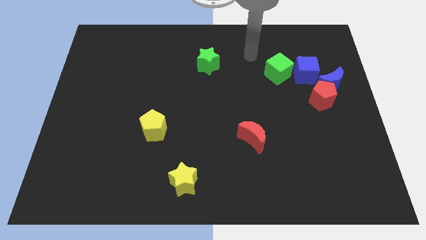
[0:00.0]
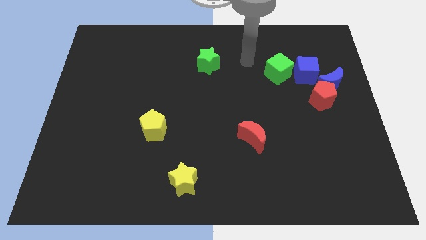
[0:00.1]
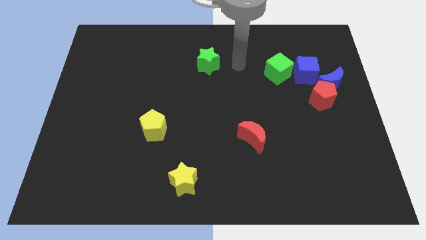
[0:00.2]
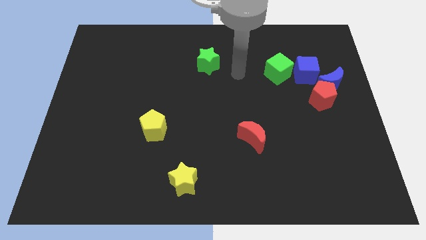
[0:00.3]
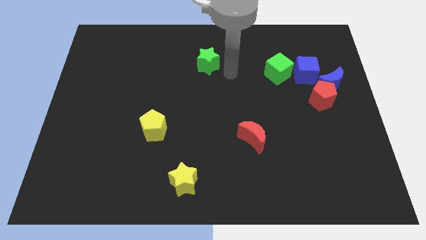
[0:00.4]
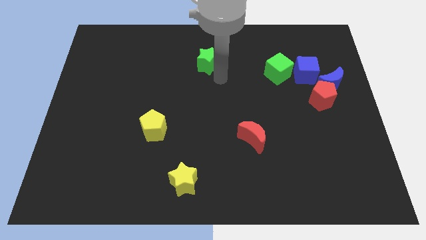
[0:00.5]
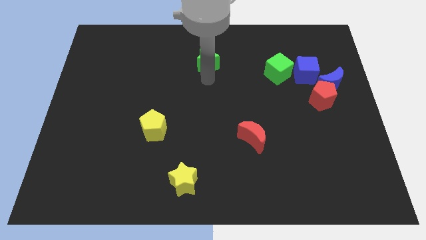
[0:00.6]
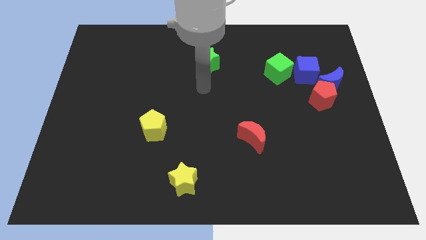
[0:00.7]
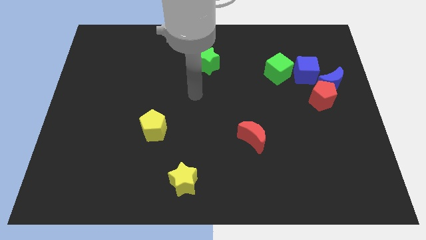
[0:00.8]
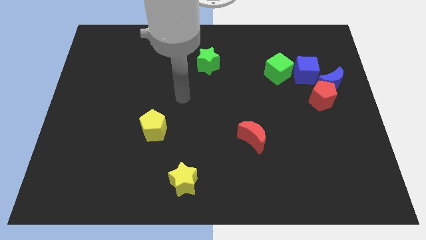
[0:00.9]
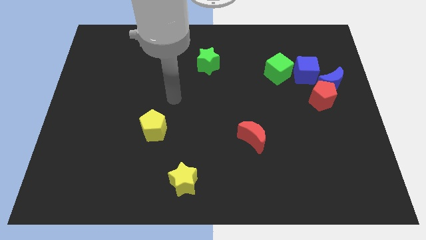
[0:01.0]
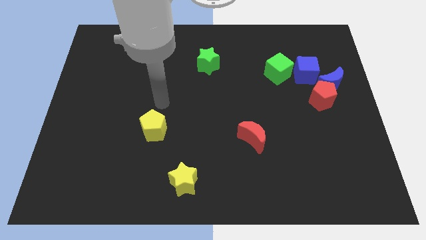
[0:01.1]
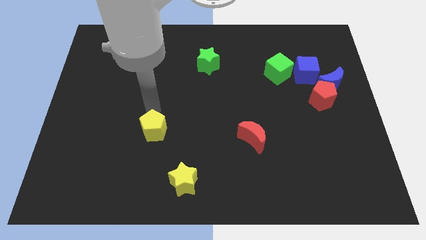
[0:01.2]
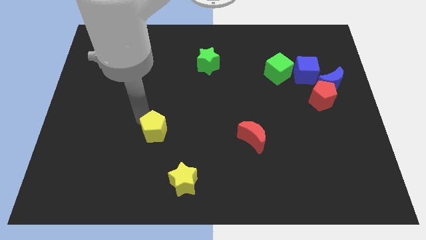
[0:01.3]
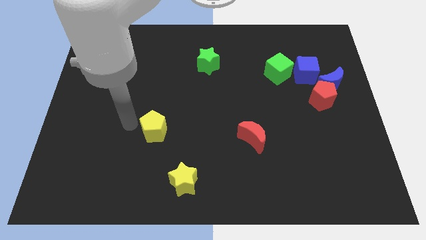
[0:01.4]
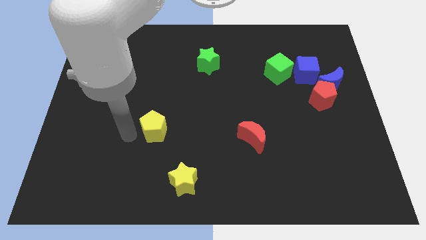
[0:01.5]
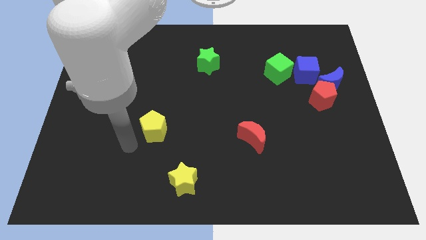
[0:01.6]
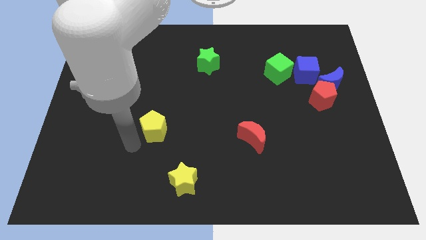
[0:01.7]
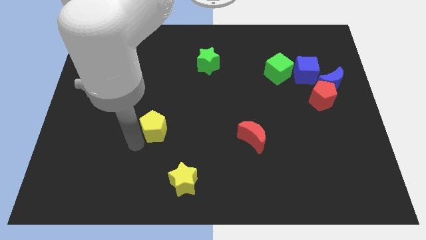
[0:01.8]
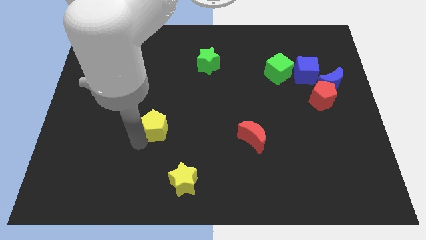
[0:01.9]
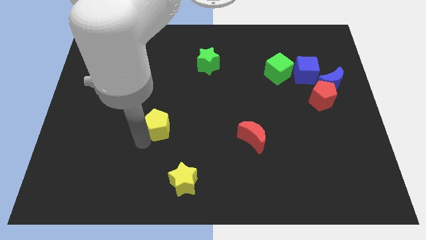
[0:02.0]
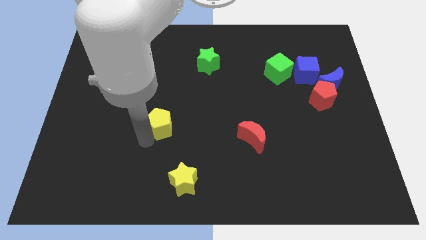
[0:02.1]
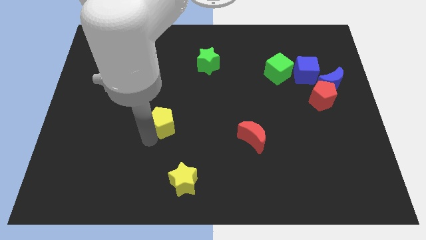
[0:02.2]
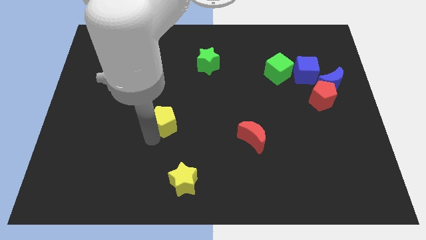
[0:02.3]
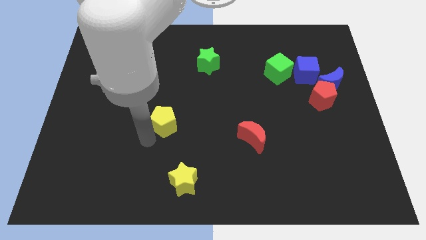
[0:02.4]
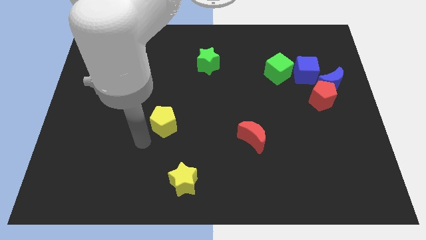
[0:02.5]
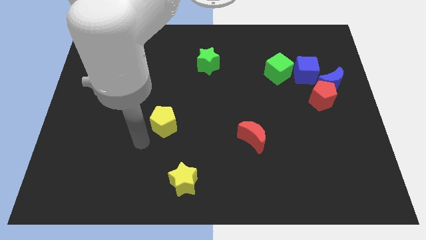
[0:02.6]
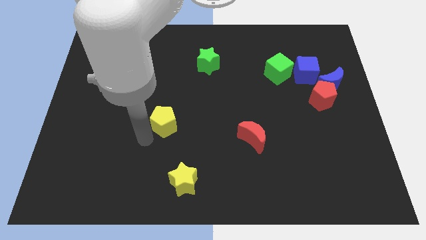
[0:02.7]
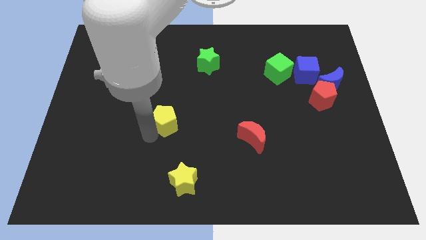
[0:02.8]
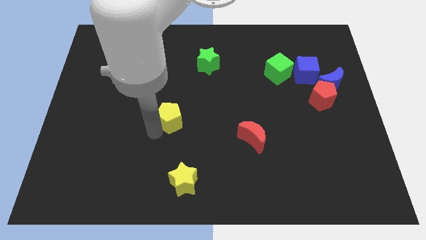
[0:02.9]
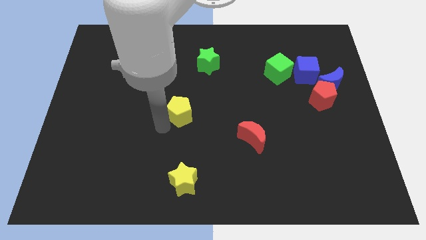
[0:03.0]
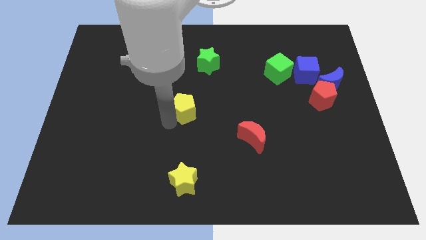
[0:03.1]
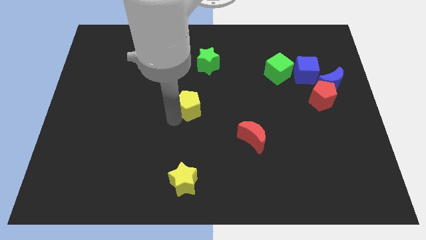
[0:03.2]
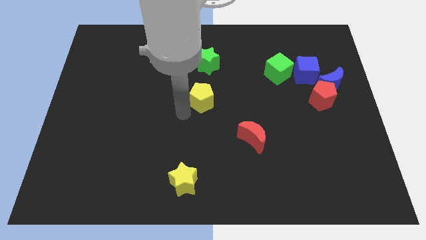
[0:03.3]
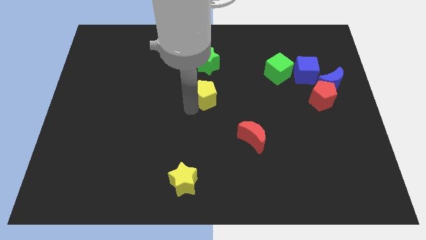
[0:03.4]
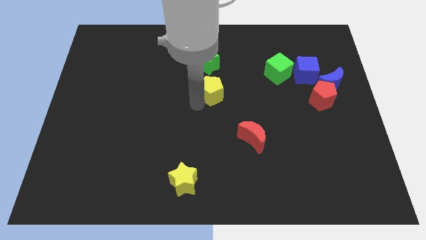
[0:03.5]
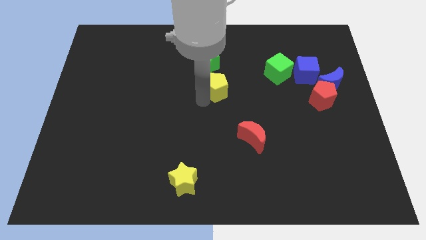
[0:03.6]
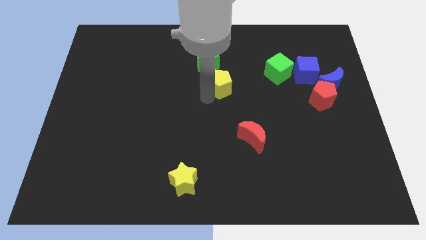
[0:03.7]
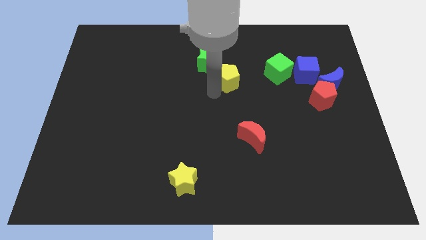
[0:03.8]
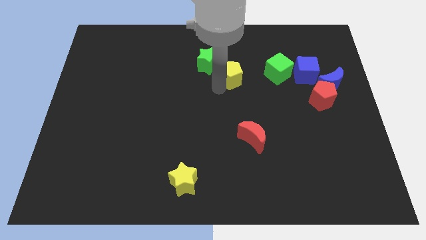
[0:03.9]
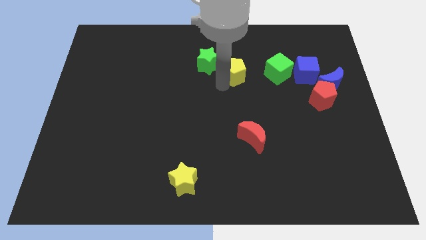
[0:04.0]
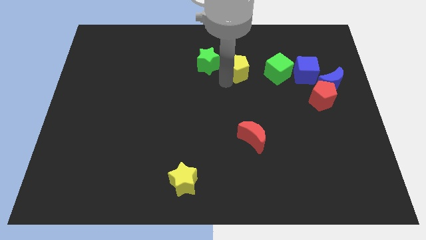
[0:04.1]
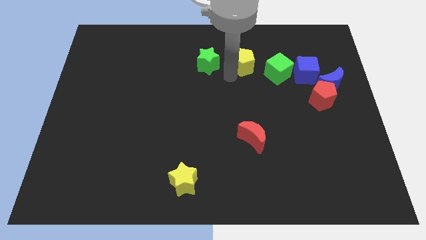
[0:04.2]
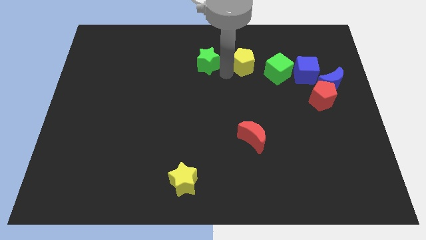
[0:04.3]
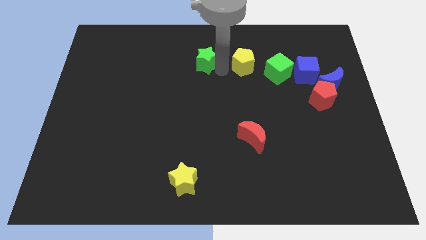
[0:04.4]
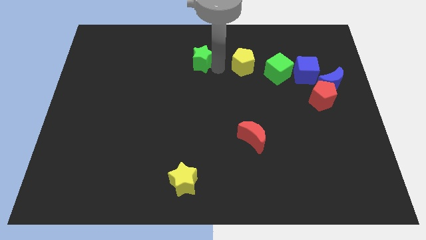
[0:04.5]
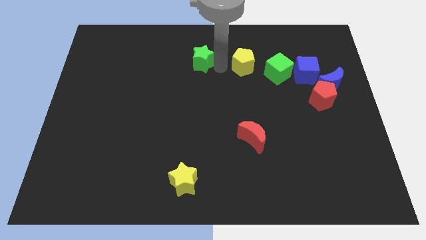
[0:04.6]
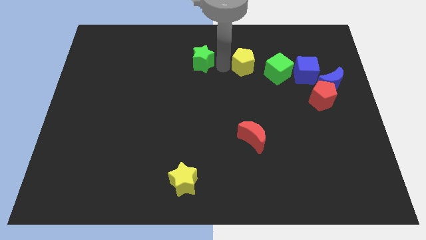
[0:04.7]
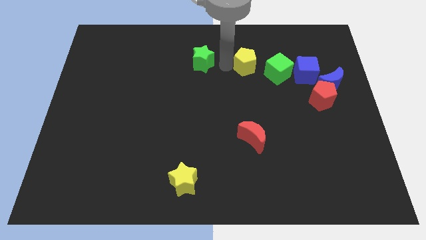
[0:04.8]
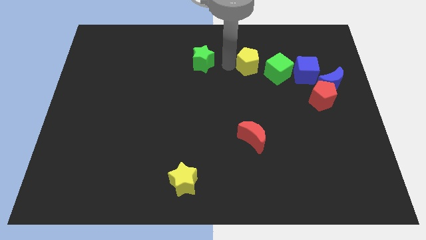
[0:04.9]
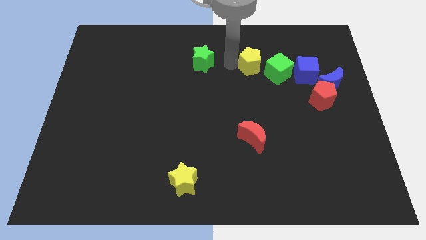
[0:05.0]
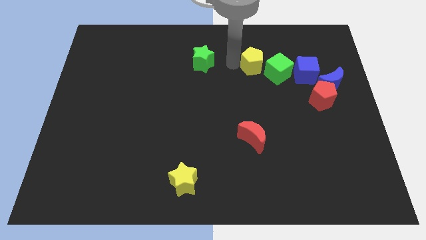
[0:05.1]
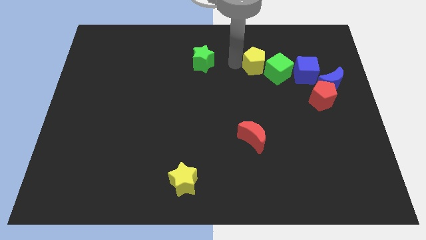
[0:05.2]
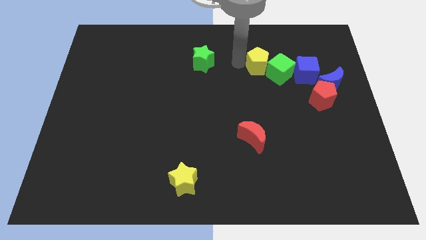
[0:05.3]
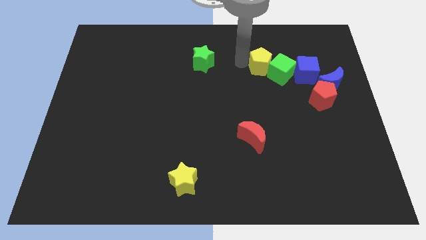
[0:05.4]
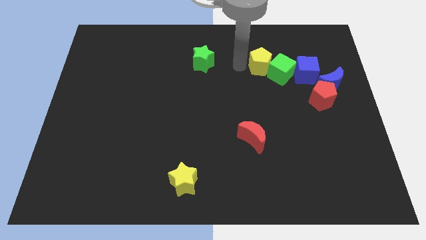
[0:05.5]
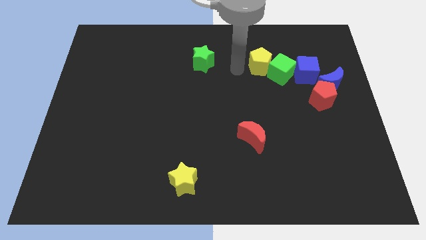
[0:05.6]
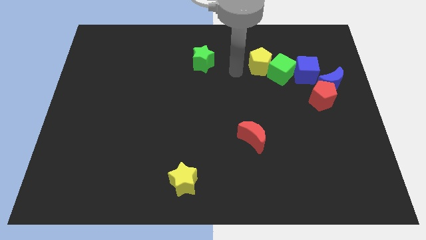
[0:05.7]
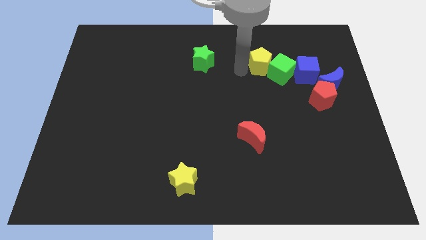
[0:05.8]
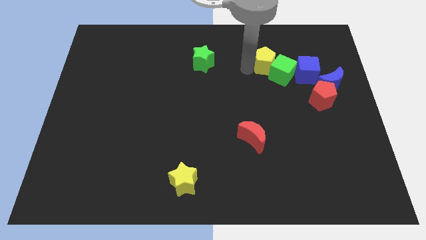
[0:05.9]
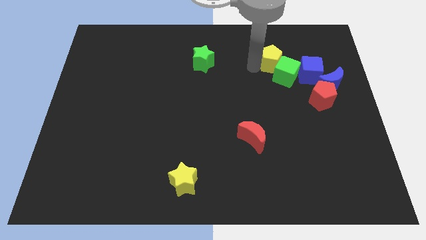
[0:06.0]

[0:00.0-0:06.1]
move the yellow pentagon to the top left side of the blue cube

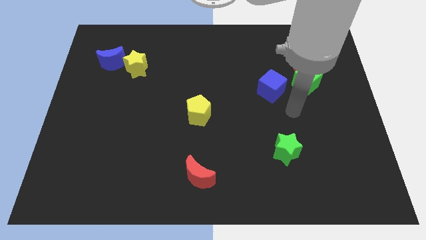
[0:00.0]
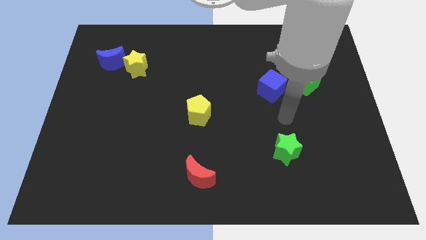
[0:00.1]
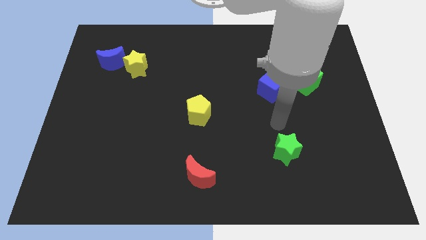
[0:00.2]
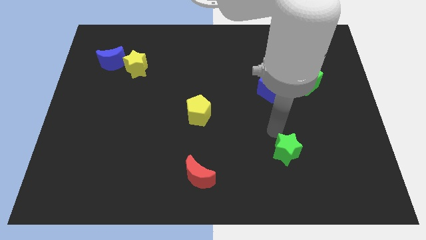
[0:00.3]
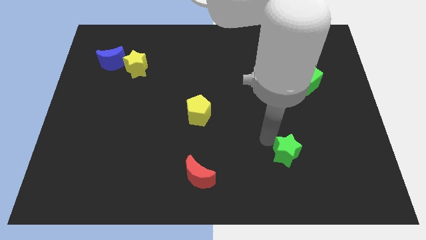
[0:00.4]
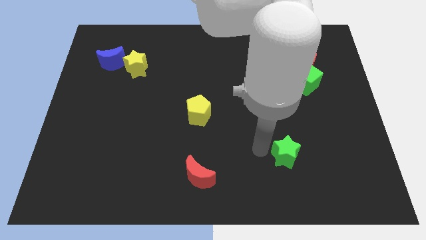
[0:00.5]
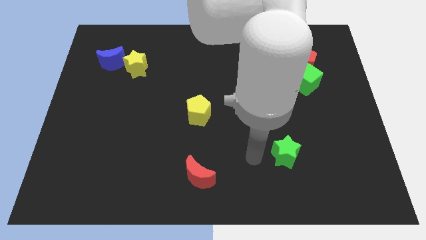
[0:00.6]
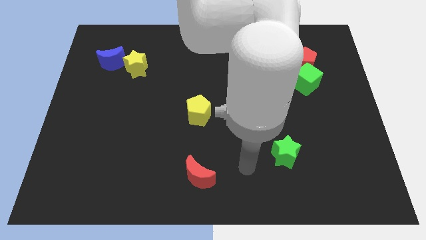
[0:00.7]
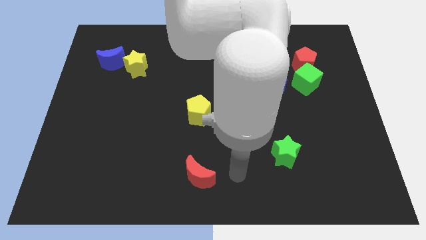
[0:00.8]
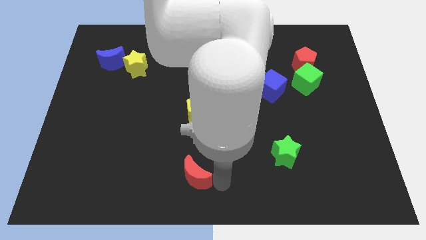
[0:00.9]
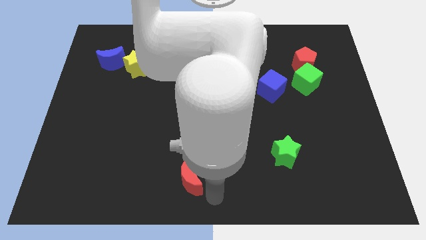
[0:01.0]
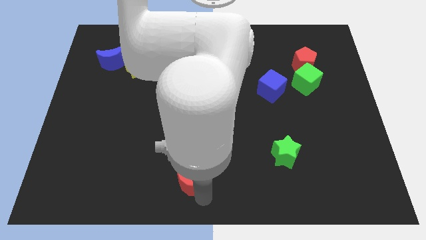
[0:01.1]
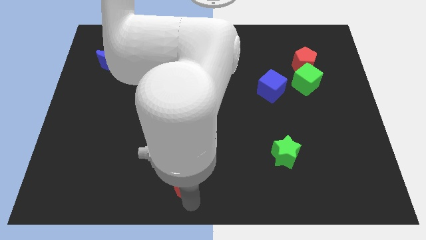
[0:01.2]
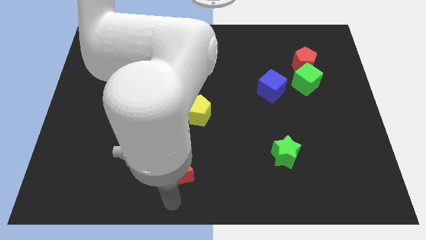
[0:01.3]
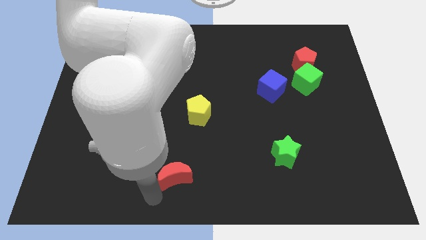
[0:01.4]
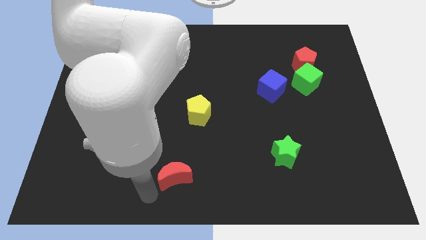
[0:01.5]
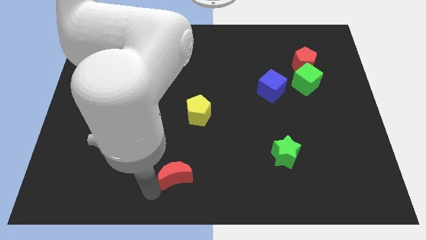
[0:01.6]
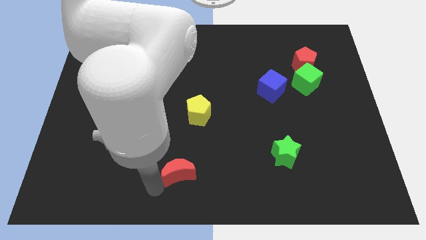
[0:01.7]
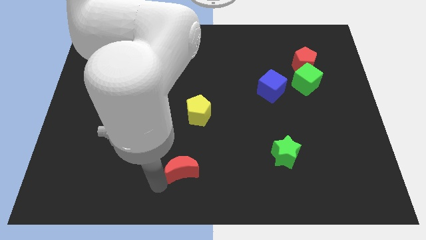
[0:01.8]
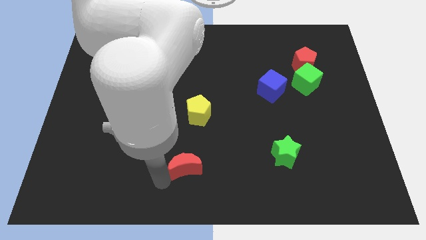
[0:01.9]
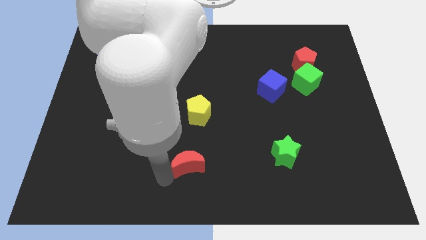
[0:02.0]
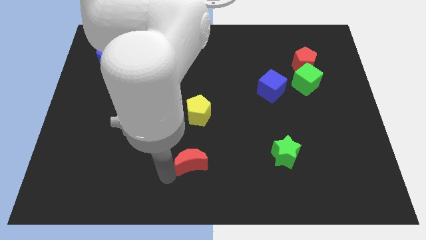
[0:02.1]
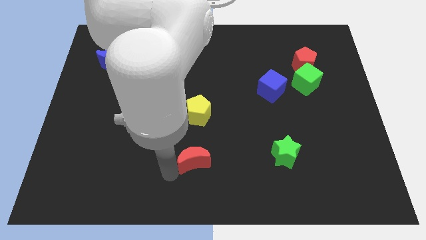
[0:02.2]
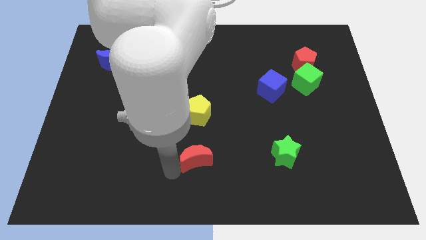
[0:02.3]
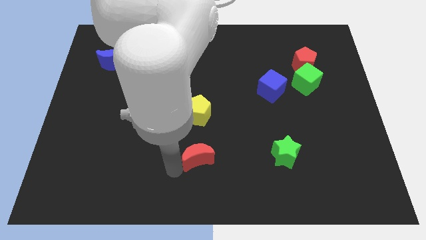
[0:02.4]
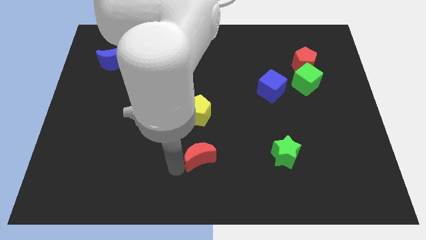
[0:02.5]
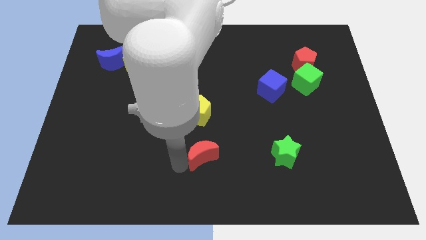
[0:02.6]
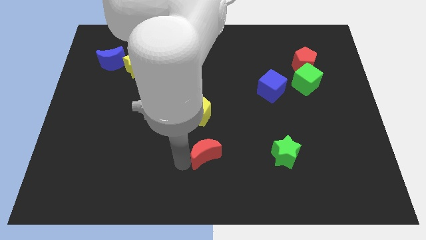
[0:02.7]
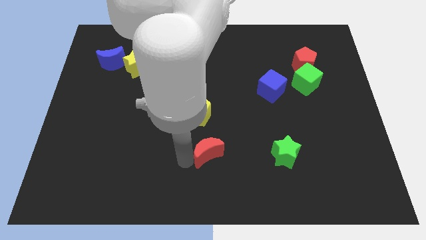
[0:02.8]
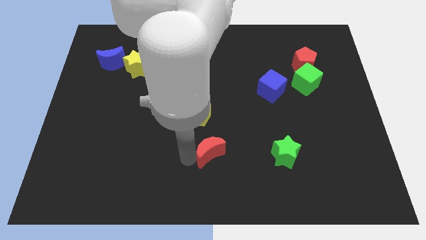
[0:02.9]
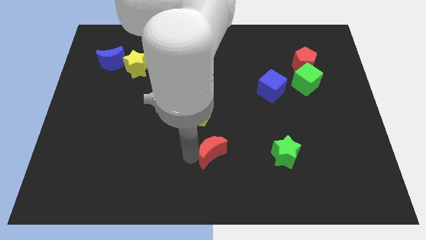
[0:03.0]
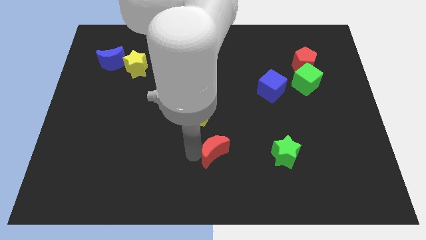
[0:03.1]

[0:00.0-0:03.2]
put the red moon diagonally down and to the right of the yellow pentagon
